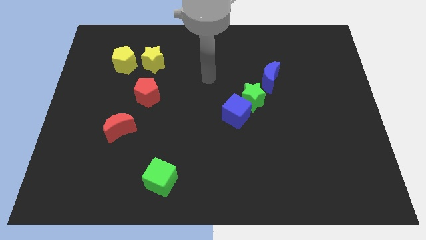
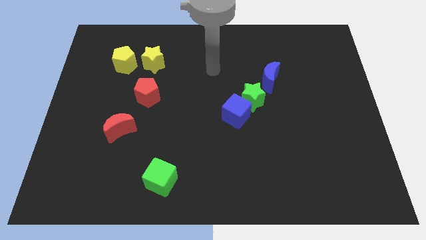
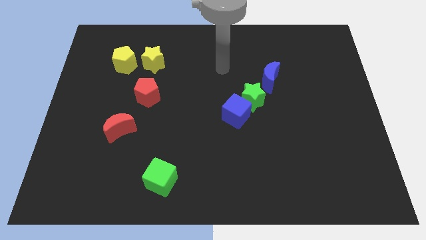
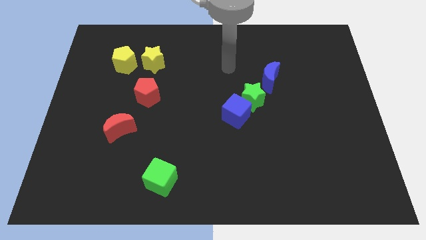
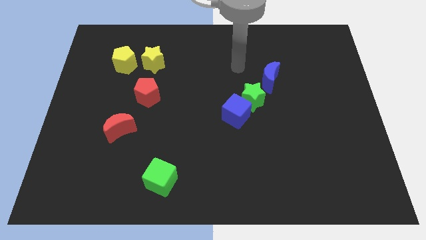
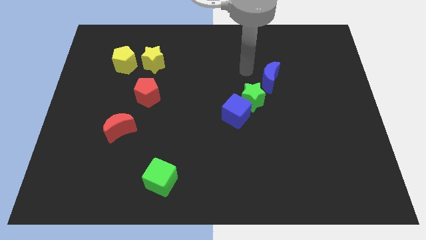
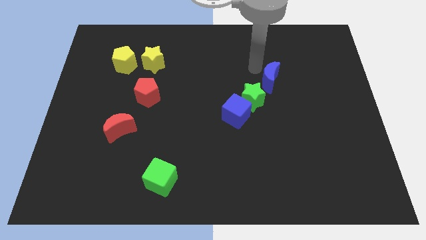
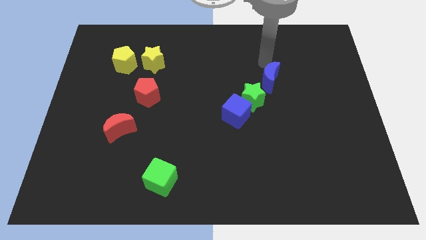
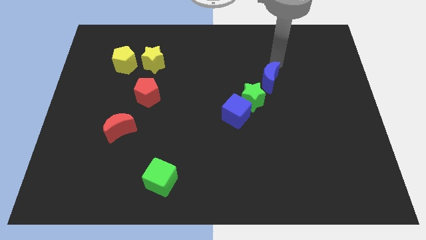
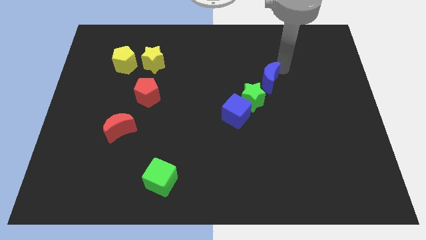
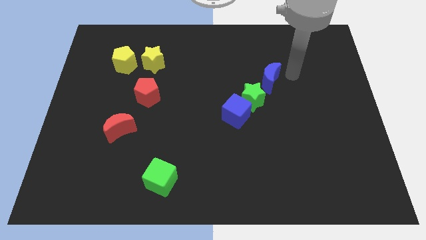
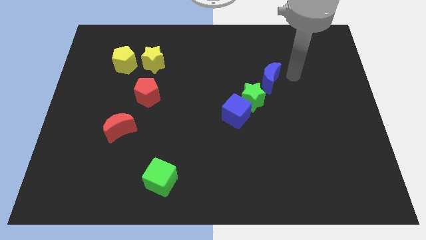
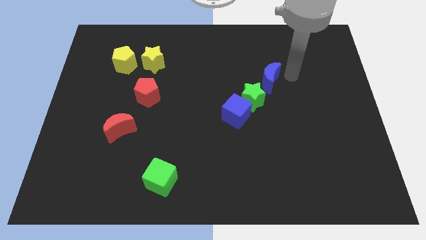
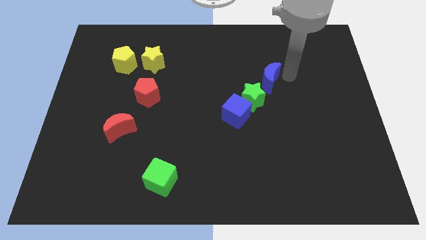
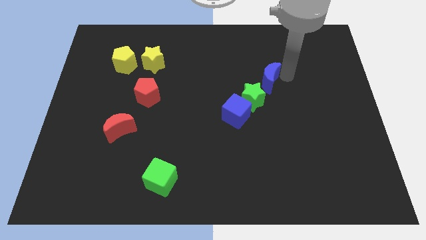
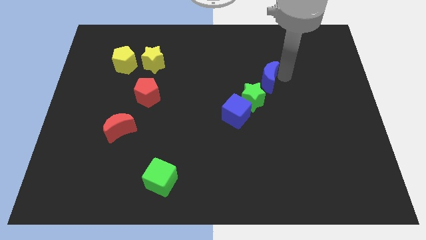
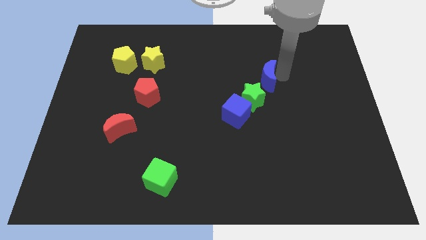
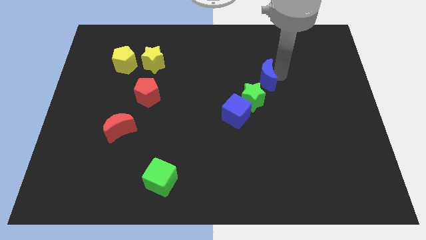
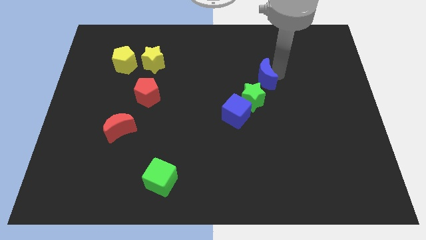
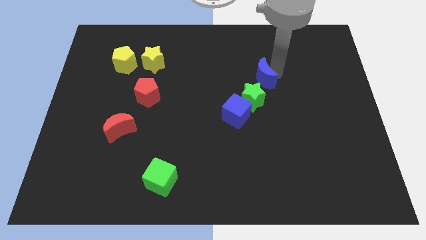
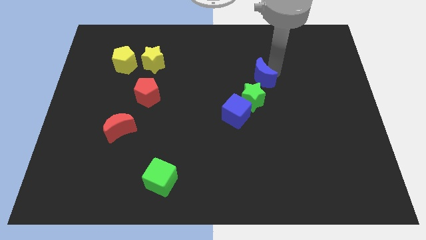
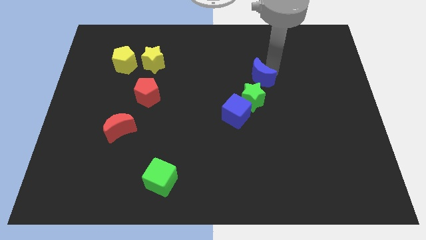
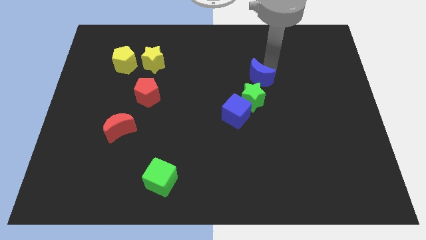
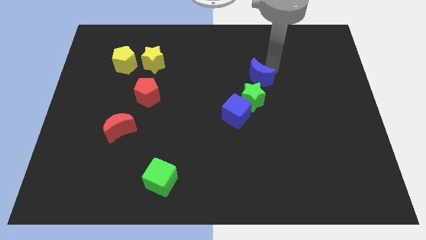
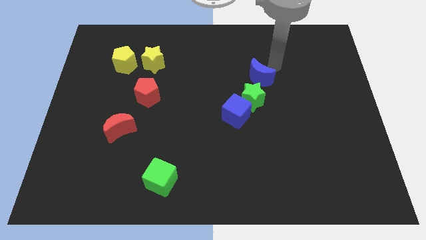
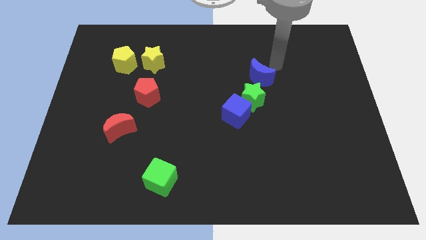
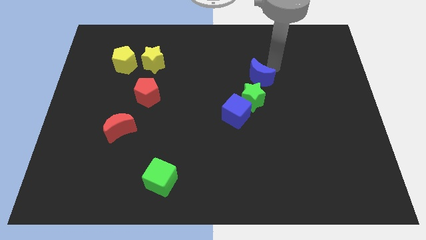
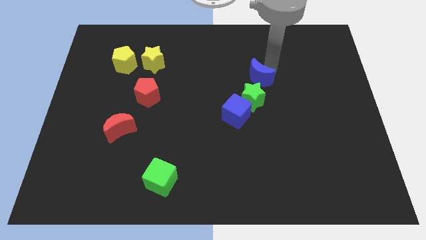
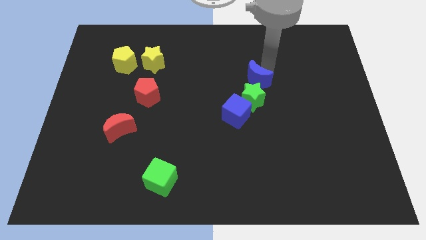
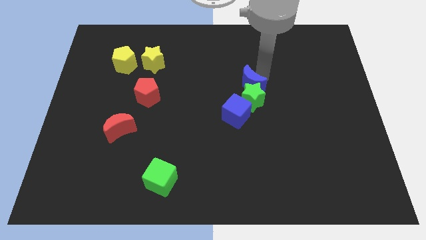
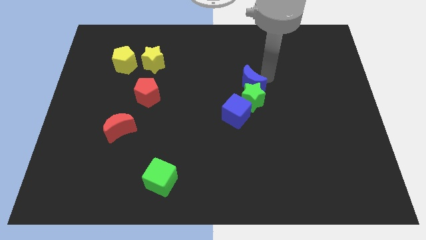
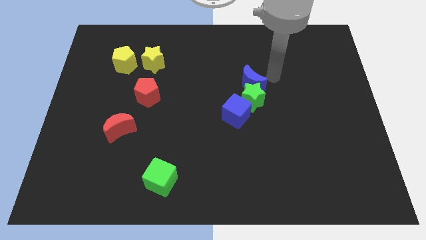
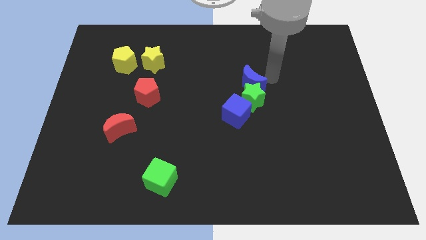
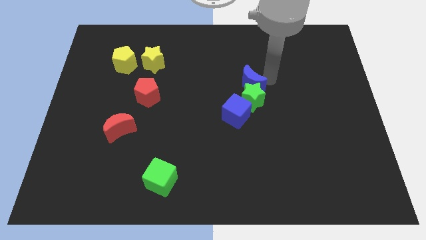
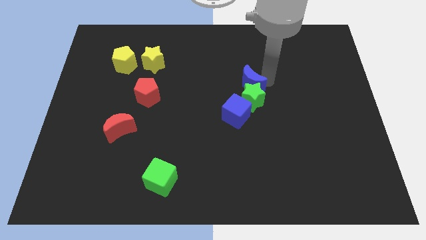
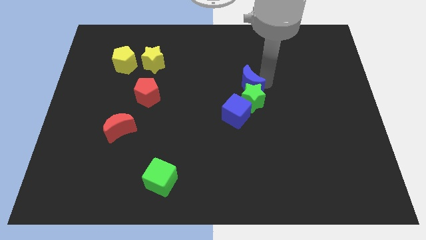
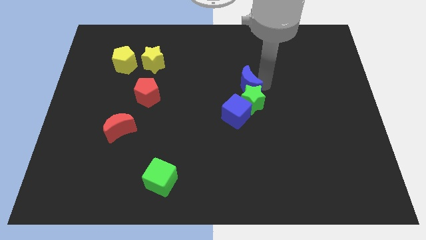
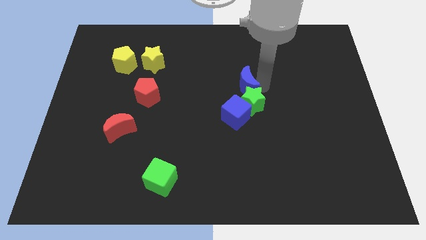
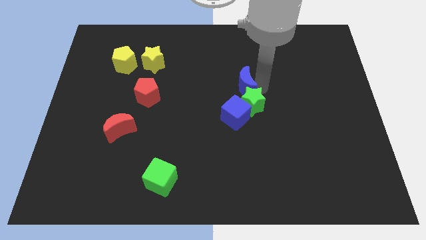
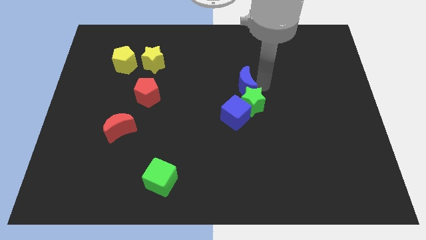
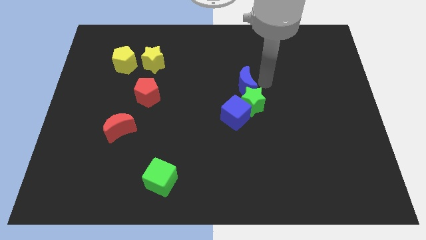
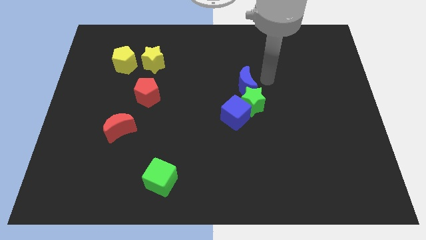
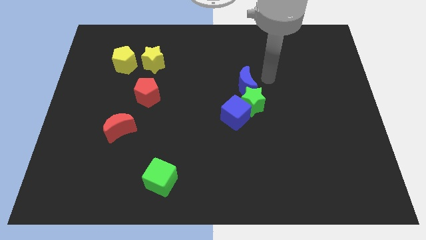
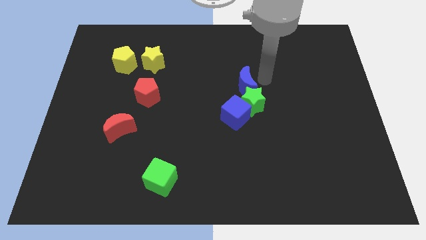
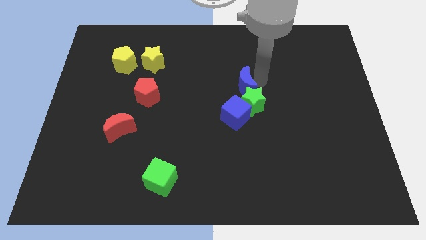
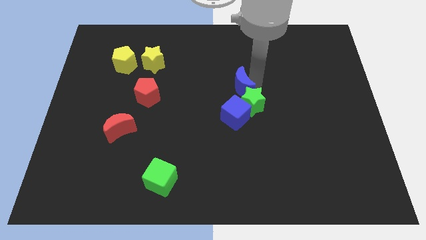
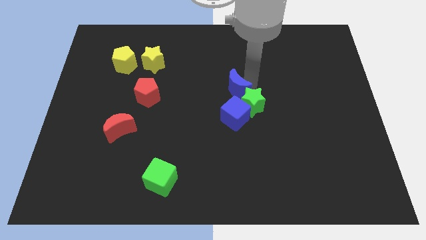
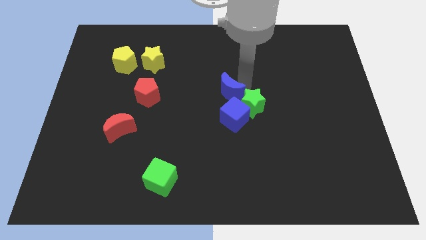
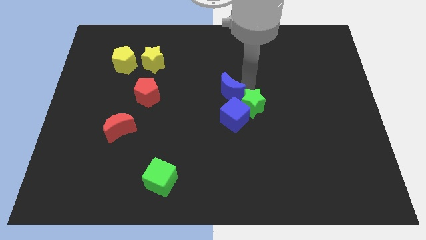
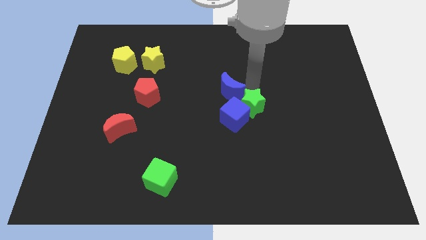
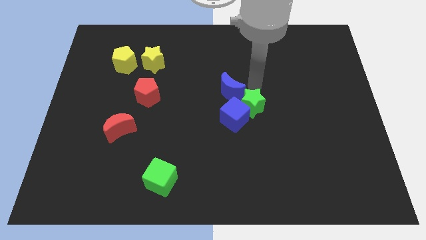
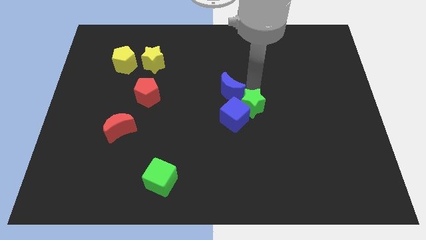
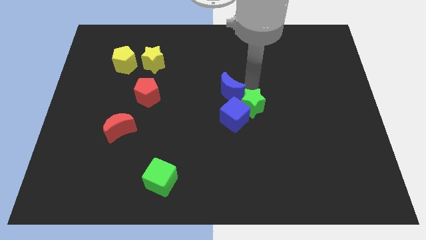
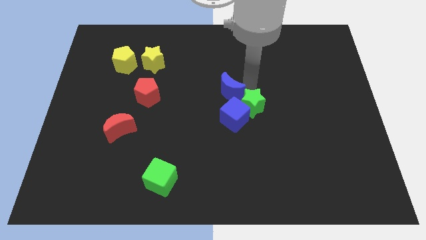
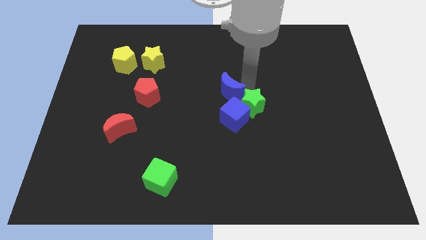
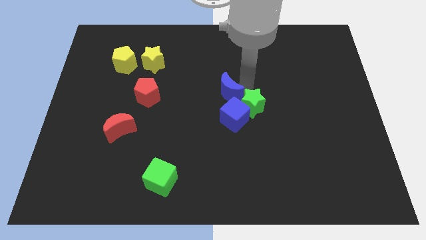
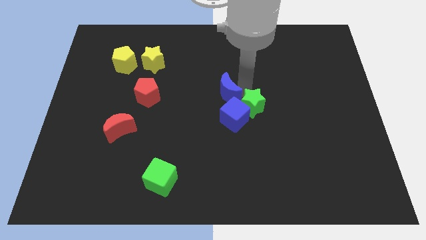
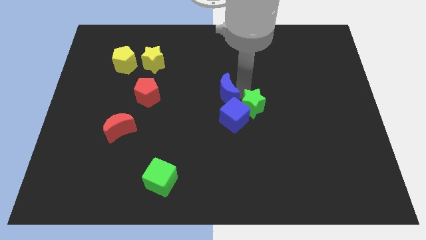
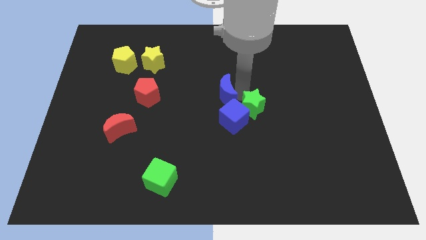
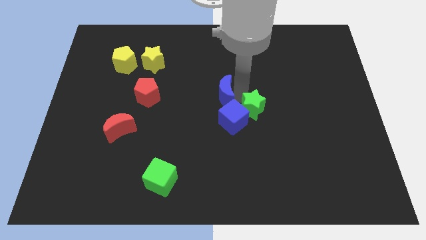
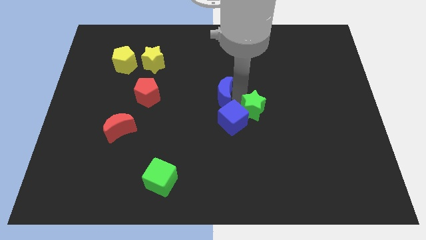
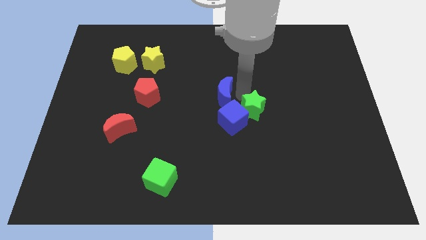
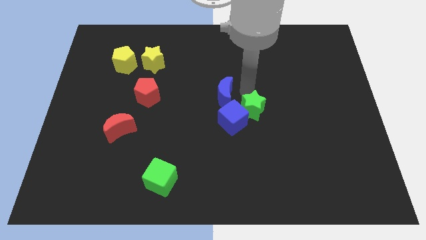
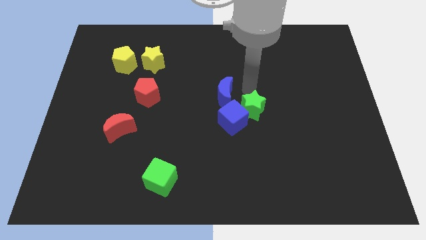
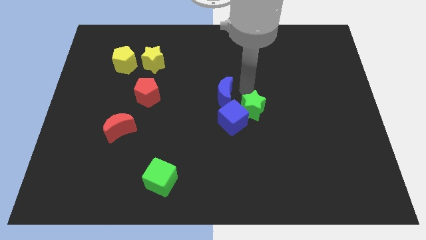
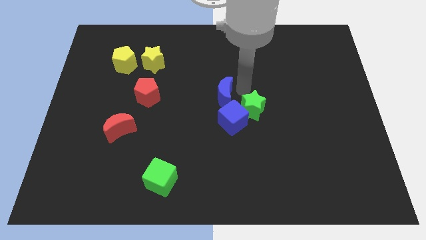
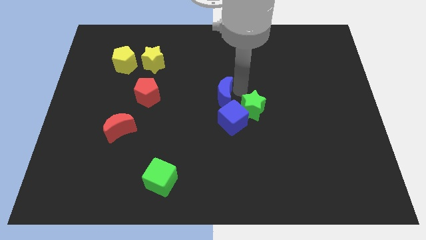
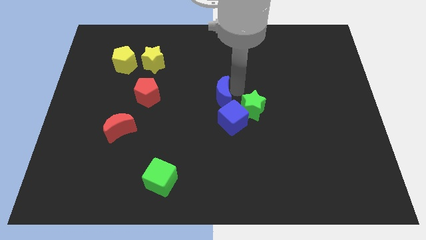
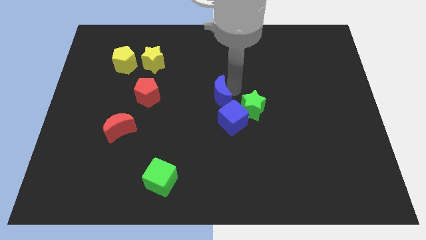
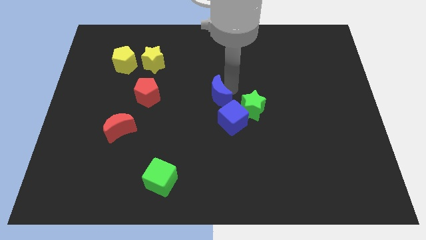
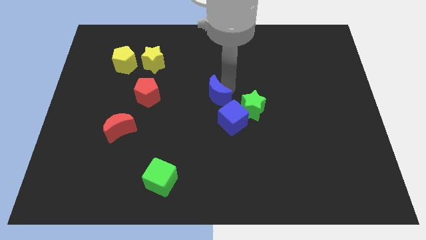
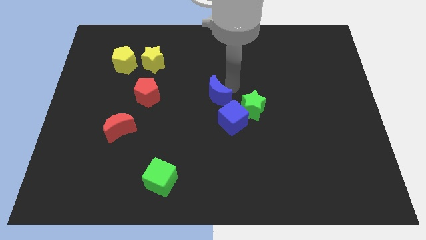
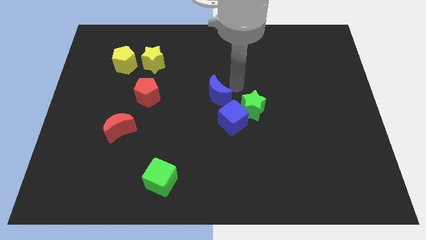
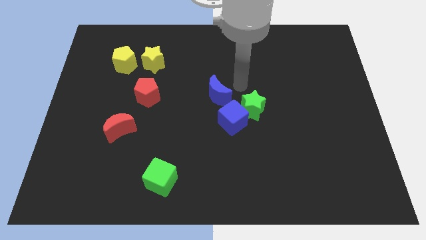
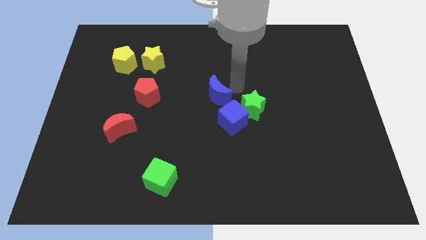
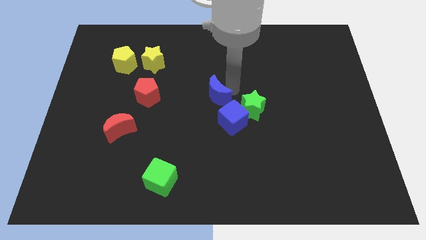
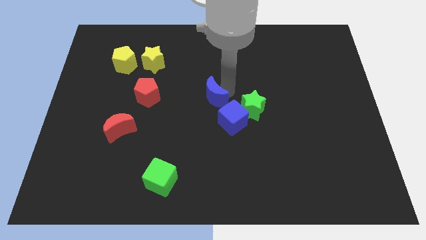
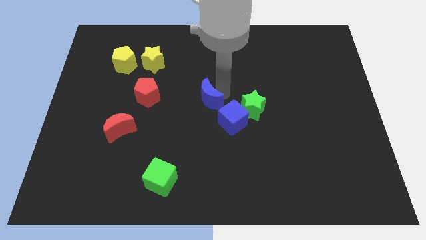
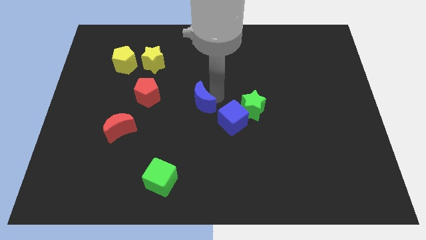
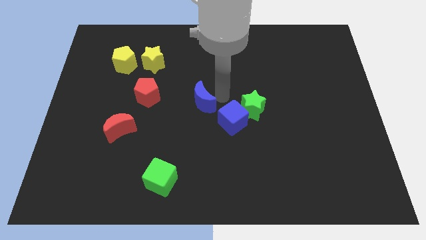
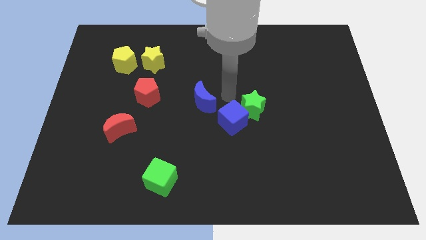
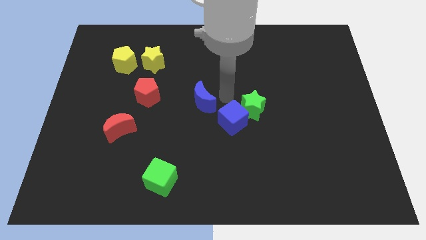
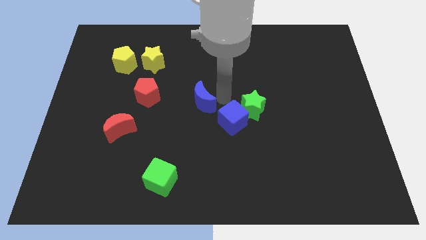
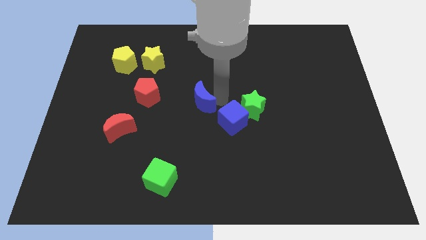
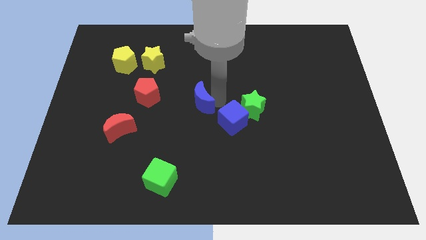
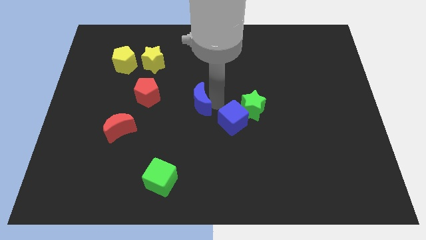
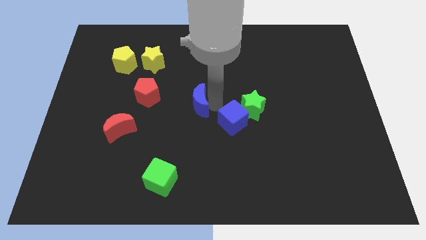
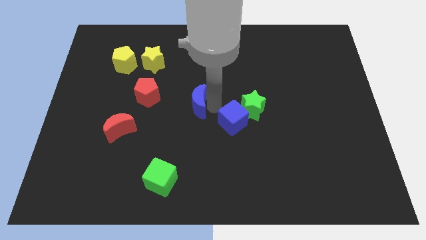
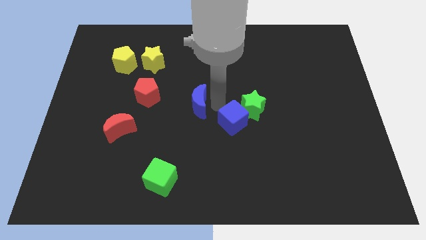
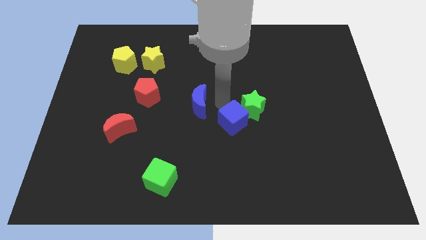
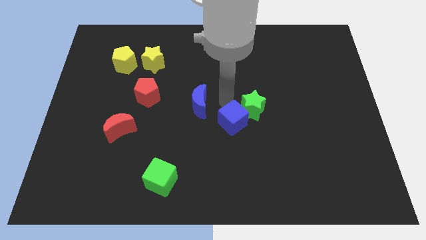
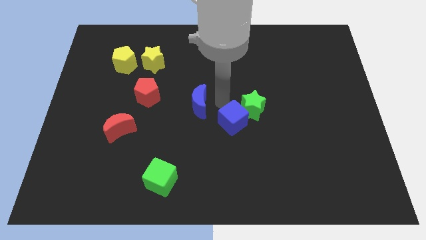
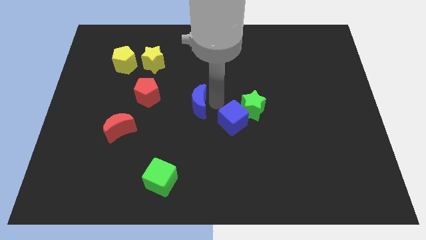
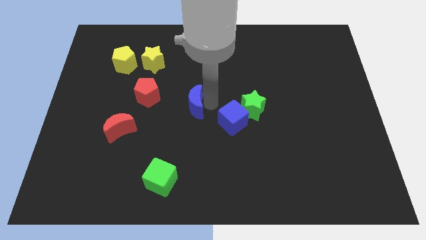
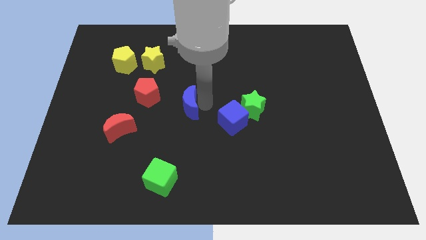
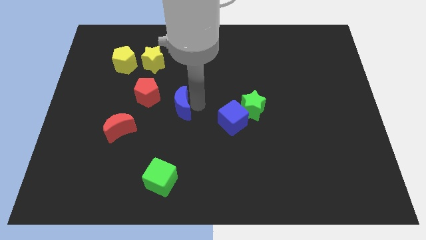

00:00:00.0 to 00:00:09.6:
move the blue moon diagonally down and to the right of the red pentagon
